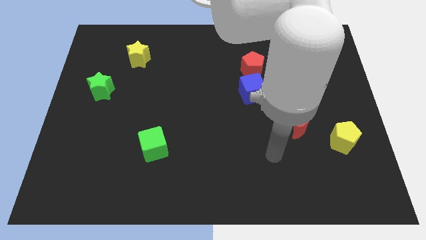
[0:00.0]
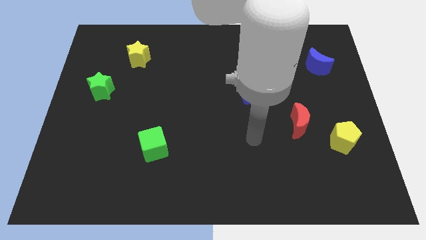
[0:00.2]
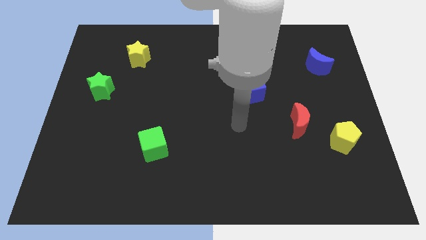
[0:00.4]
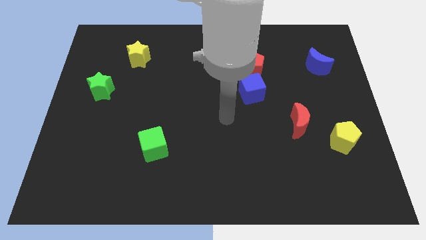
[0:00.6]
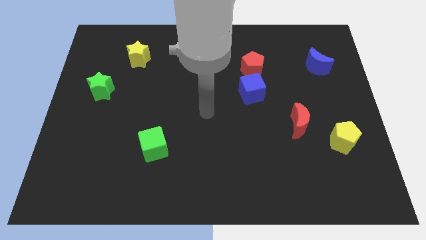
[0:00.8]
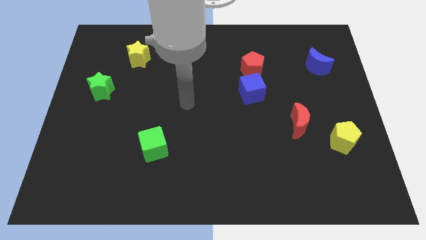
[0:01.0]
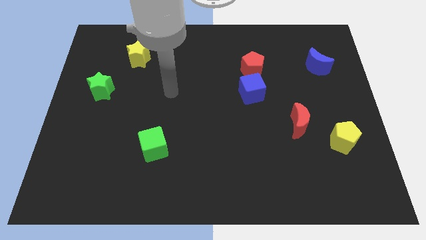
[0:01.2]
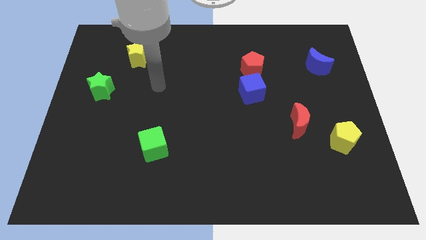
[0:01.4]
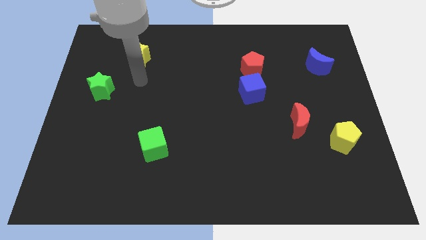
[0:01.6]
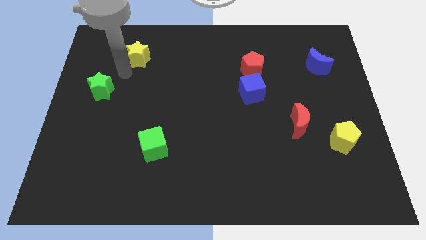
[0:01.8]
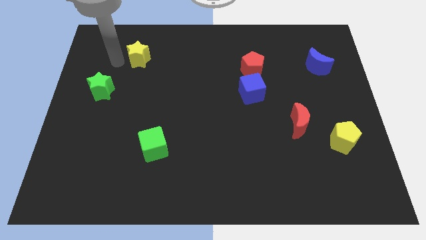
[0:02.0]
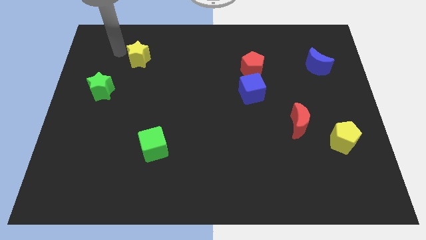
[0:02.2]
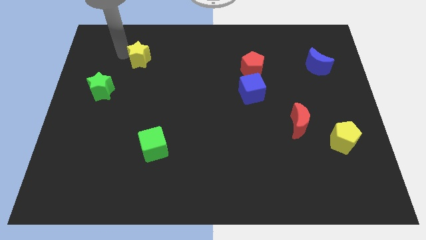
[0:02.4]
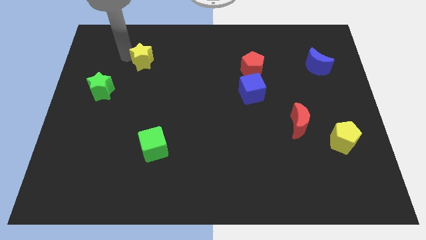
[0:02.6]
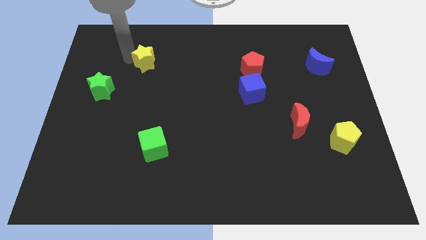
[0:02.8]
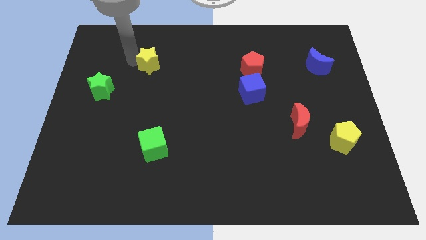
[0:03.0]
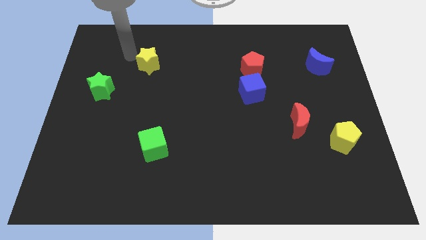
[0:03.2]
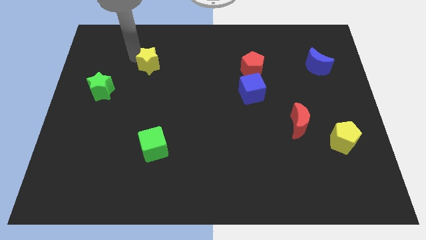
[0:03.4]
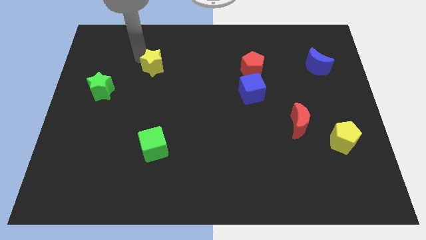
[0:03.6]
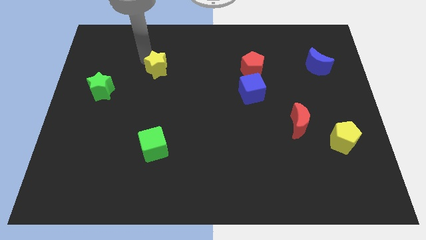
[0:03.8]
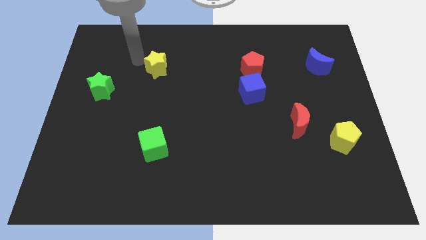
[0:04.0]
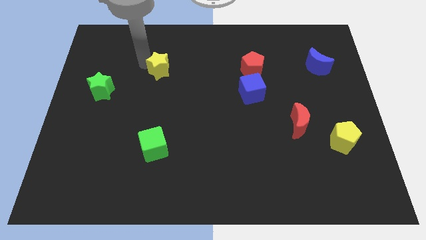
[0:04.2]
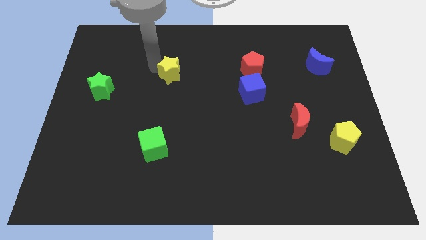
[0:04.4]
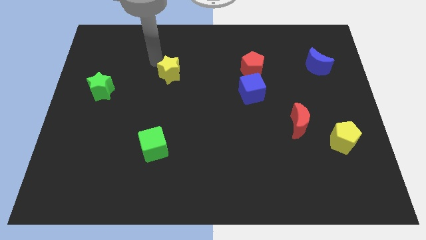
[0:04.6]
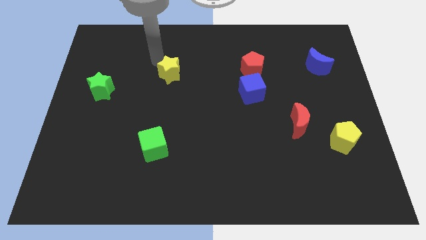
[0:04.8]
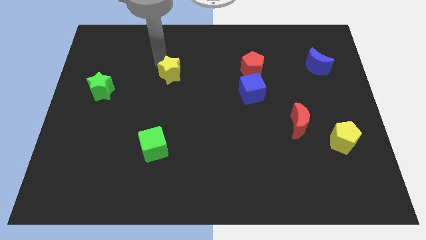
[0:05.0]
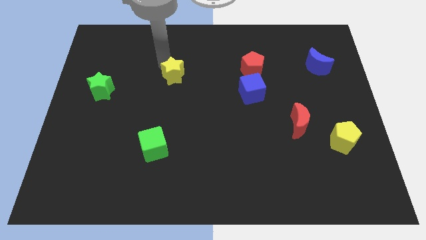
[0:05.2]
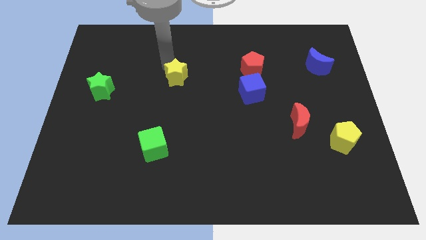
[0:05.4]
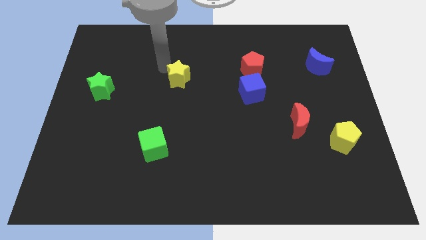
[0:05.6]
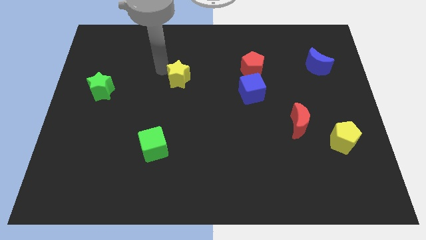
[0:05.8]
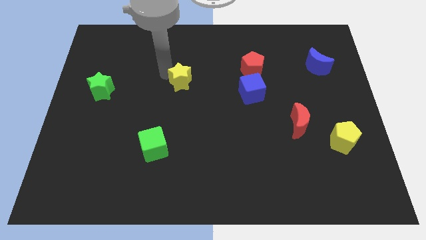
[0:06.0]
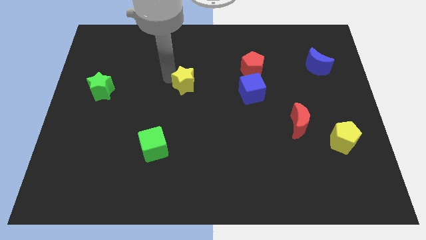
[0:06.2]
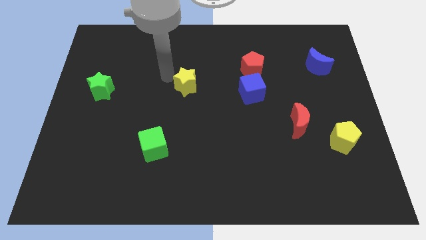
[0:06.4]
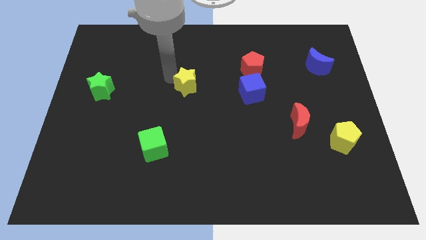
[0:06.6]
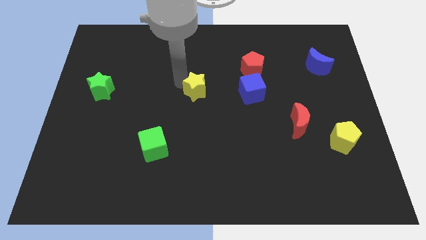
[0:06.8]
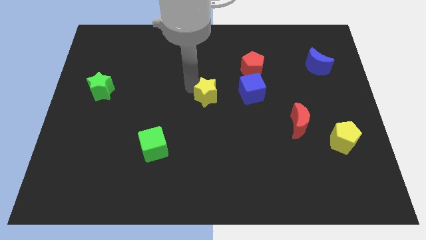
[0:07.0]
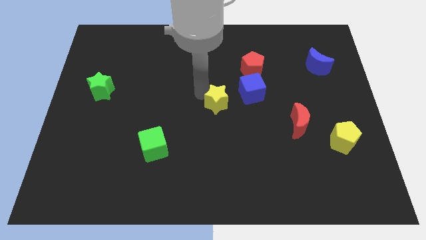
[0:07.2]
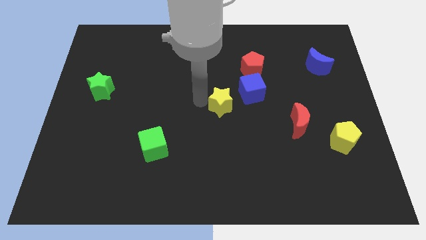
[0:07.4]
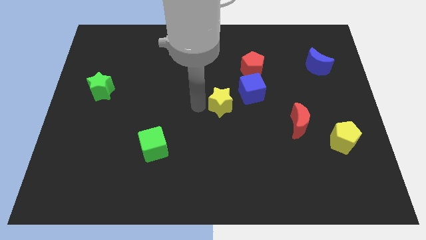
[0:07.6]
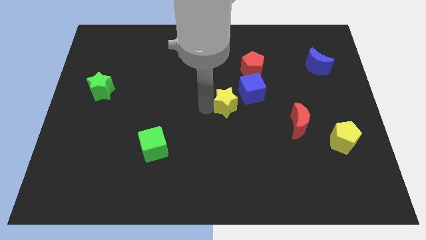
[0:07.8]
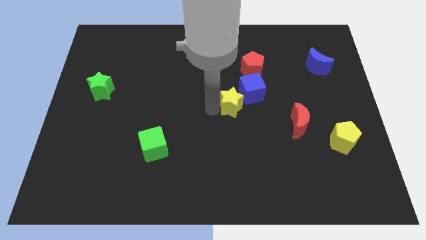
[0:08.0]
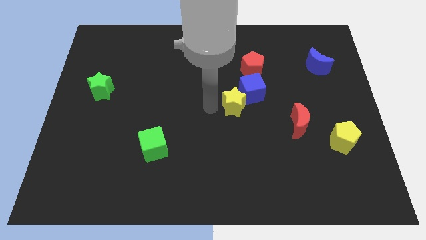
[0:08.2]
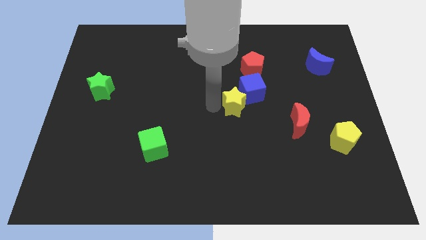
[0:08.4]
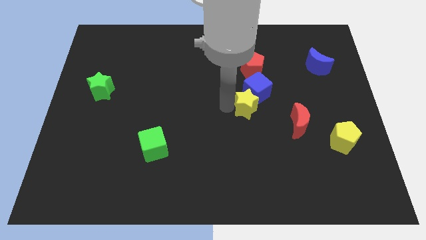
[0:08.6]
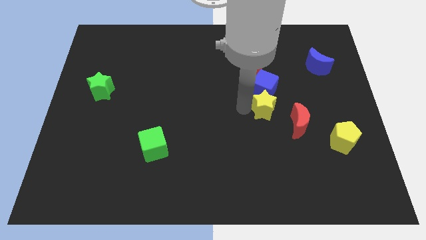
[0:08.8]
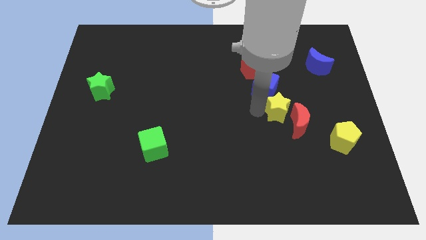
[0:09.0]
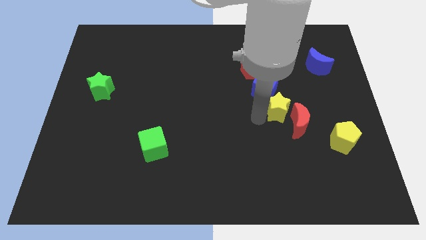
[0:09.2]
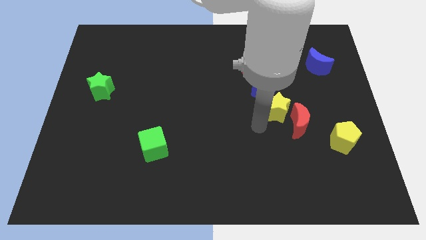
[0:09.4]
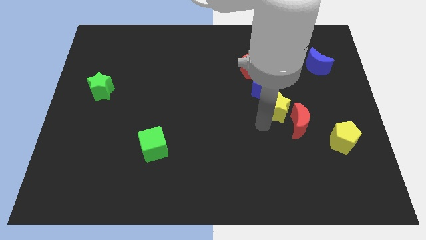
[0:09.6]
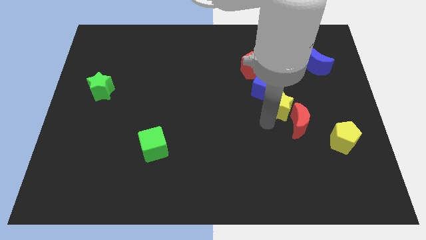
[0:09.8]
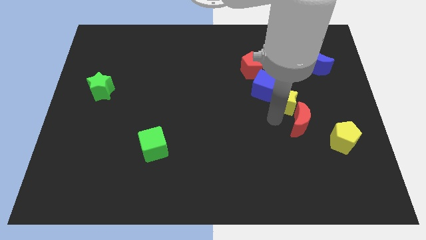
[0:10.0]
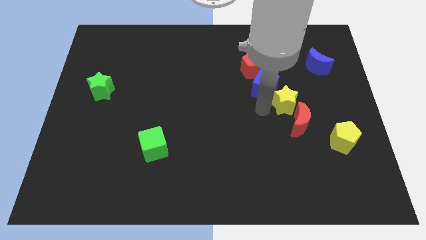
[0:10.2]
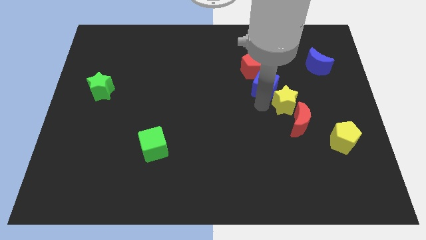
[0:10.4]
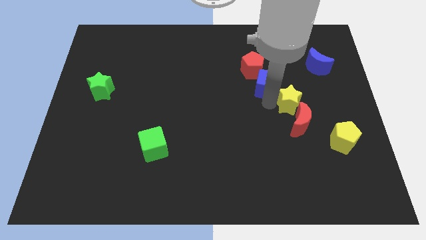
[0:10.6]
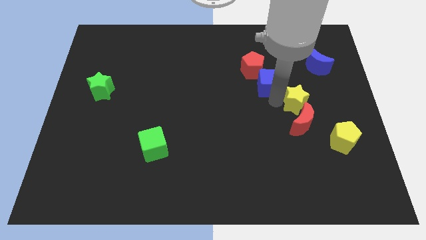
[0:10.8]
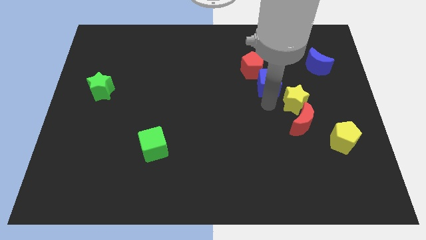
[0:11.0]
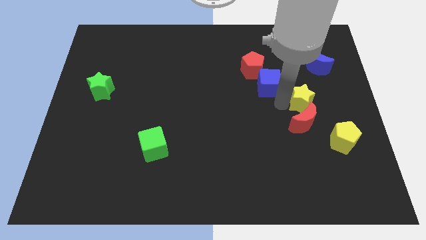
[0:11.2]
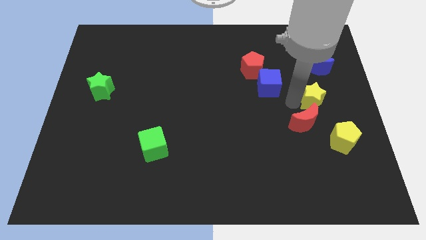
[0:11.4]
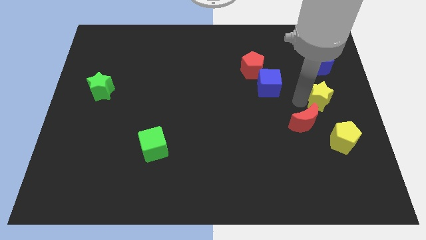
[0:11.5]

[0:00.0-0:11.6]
push the yellow star to the right side of the board

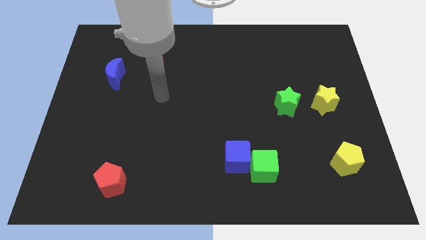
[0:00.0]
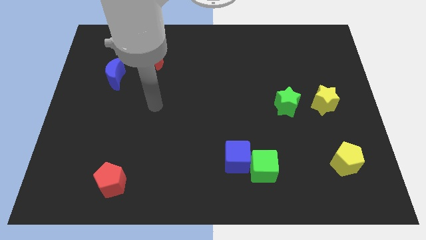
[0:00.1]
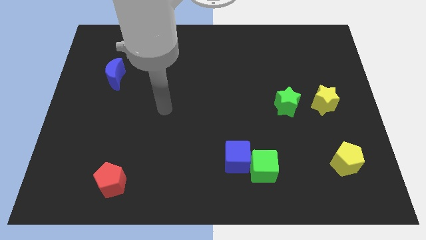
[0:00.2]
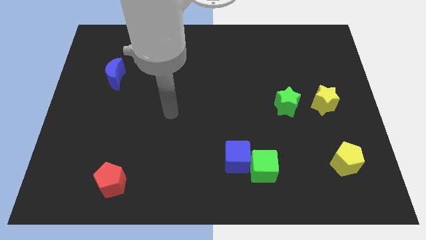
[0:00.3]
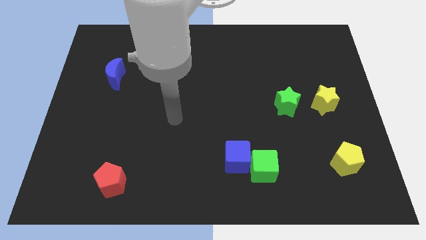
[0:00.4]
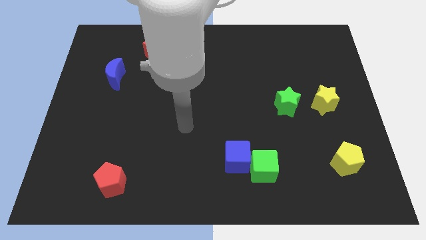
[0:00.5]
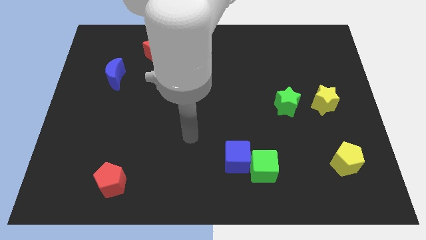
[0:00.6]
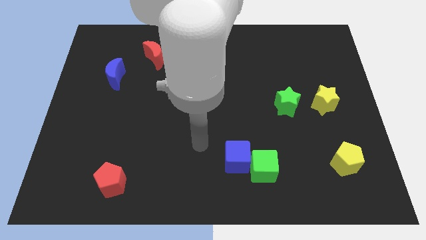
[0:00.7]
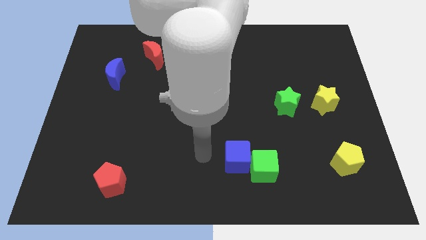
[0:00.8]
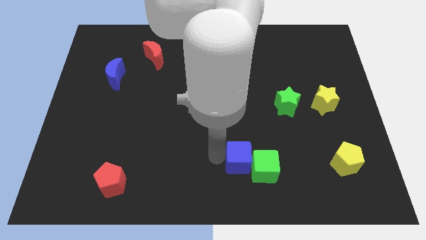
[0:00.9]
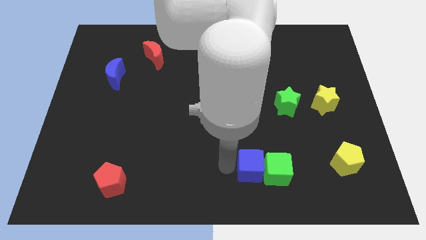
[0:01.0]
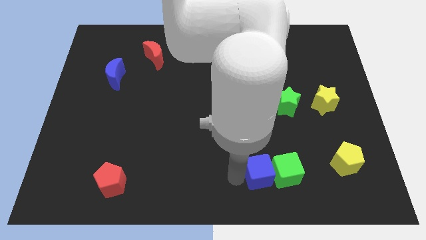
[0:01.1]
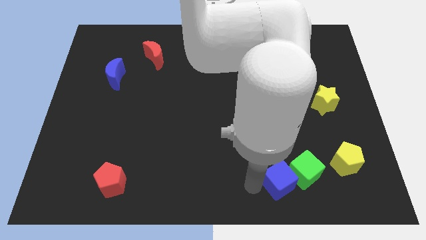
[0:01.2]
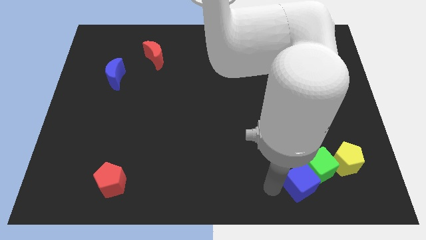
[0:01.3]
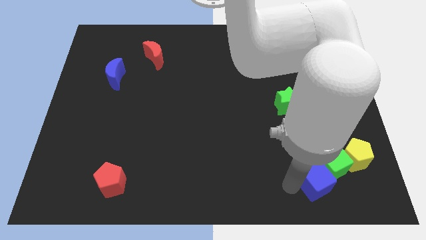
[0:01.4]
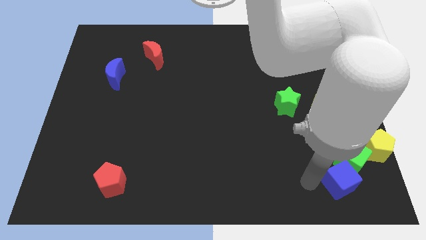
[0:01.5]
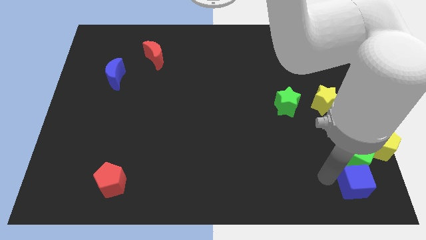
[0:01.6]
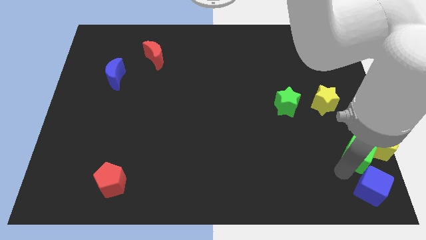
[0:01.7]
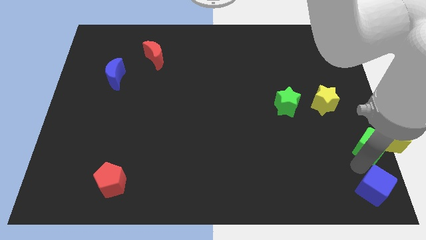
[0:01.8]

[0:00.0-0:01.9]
move the green cube to the center right

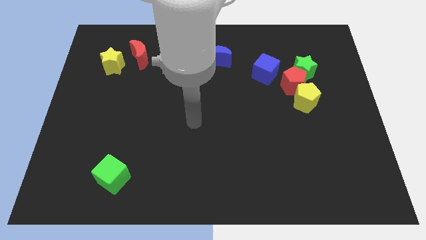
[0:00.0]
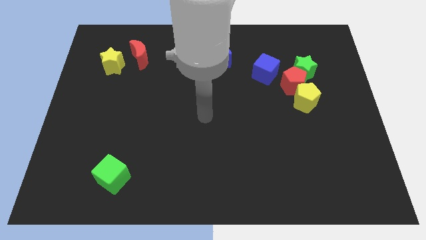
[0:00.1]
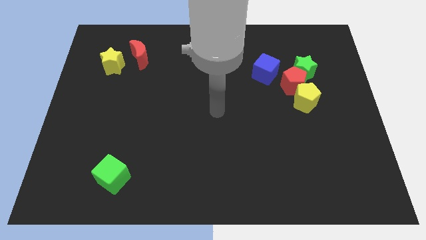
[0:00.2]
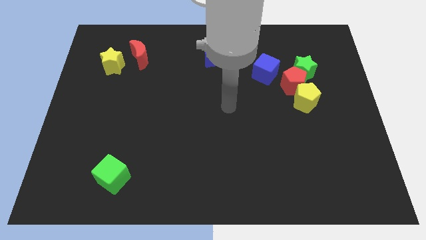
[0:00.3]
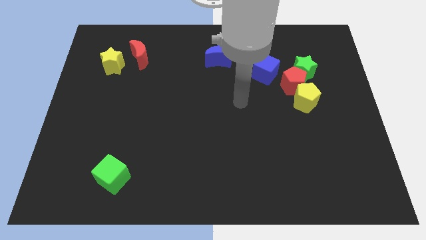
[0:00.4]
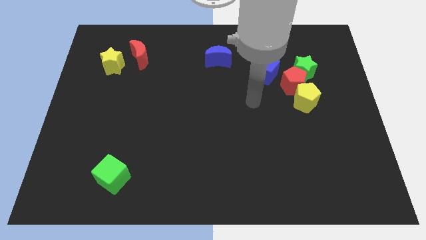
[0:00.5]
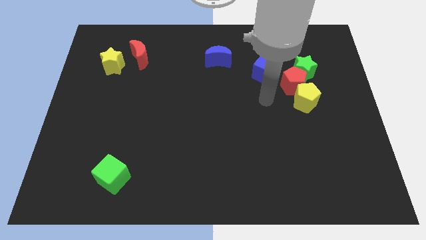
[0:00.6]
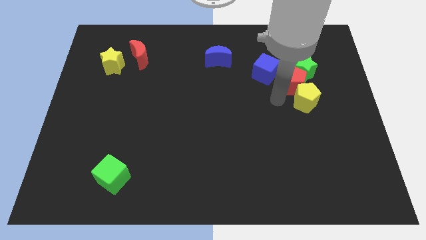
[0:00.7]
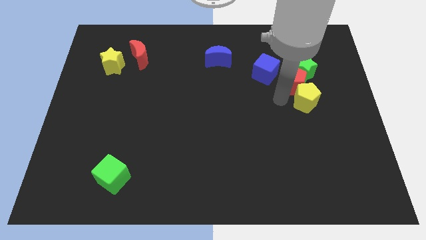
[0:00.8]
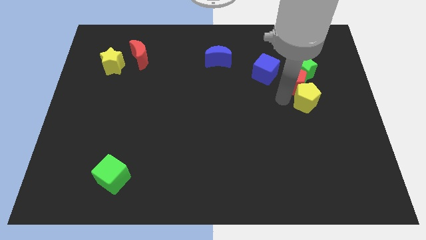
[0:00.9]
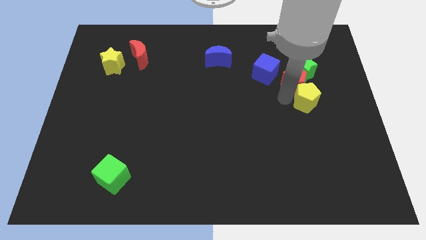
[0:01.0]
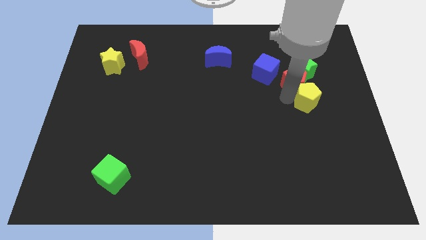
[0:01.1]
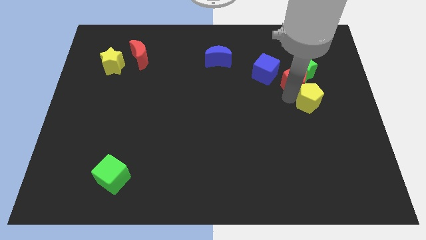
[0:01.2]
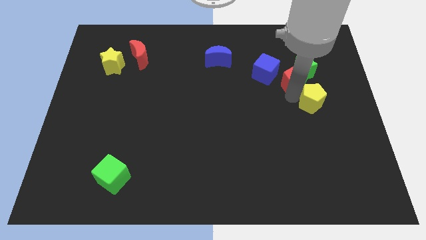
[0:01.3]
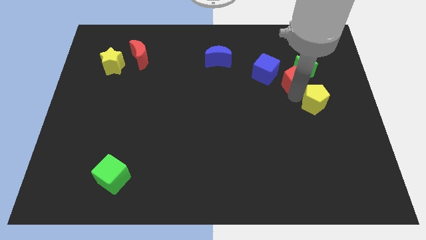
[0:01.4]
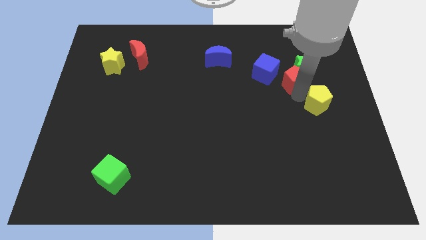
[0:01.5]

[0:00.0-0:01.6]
slide the yellow pentagon to the right side
